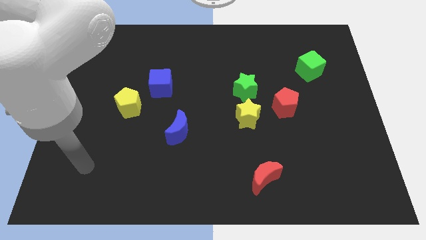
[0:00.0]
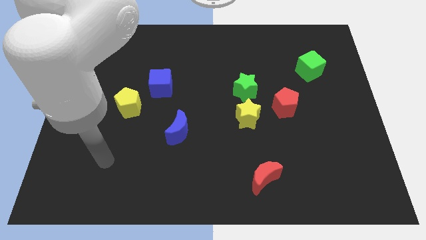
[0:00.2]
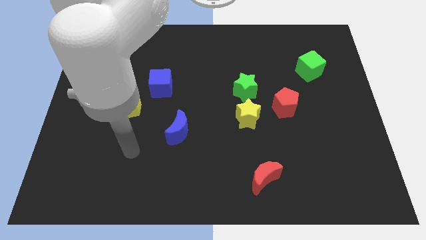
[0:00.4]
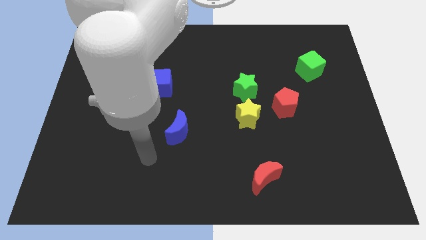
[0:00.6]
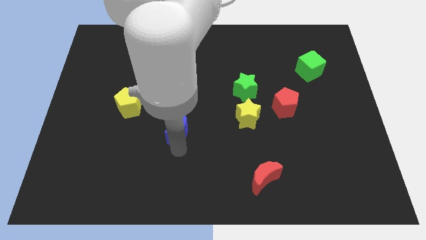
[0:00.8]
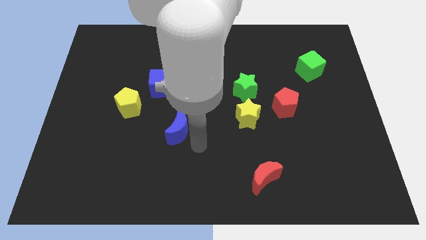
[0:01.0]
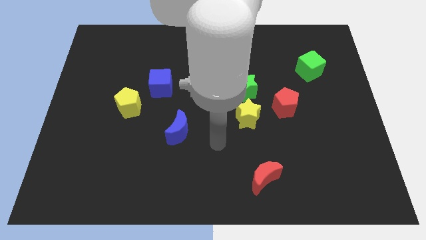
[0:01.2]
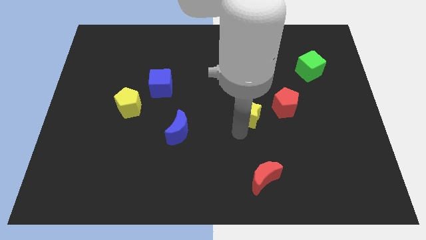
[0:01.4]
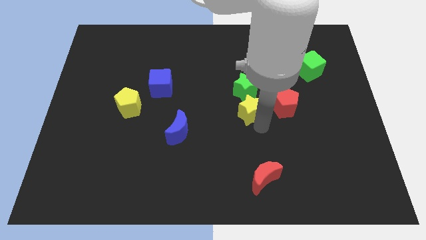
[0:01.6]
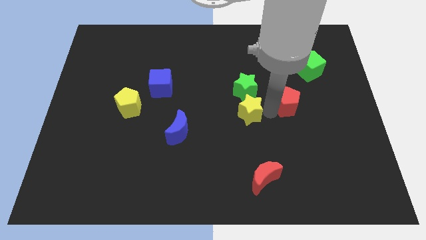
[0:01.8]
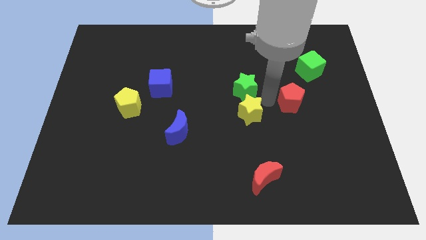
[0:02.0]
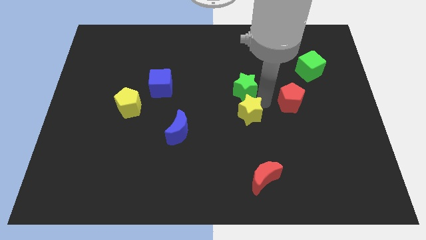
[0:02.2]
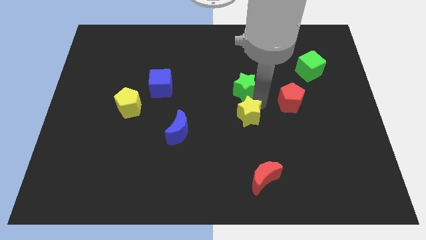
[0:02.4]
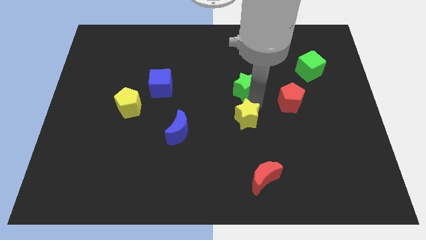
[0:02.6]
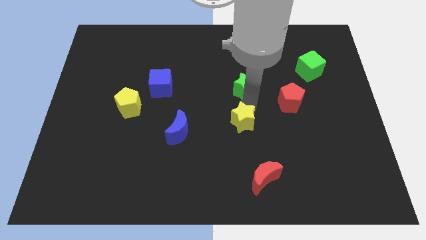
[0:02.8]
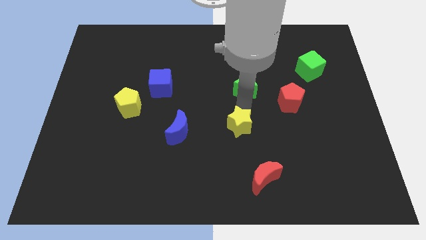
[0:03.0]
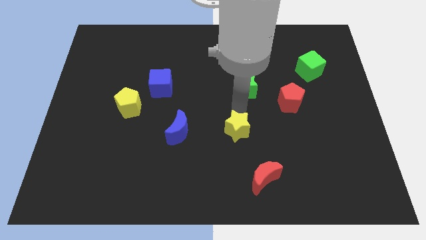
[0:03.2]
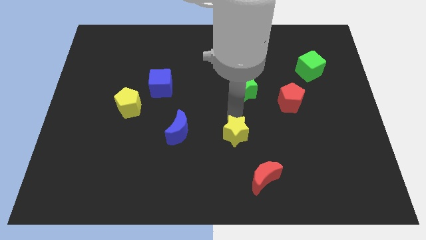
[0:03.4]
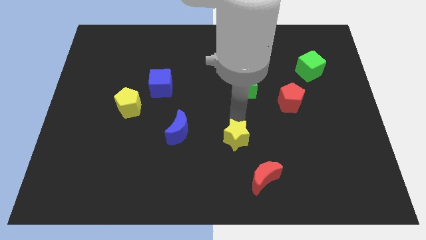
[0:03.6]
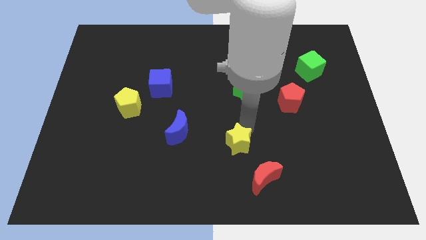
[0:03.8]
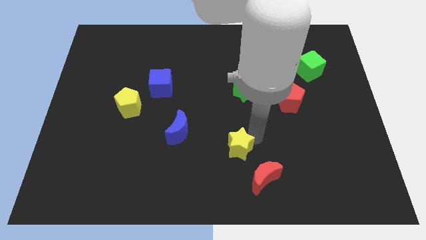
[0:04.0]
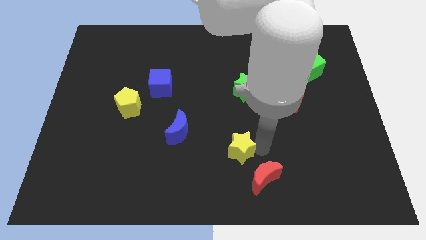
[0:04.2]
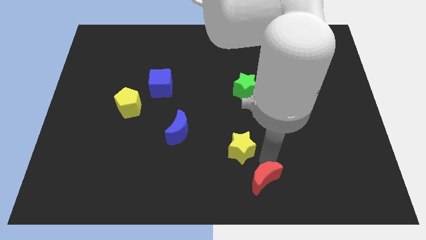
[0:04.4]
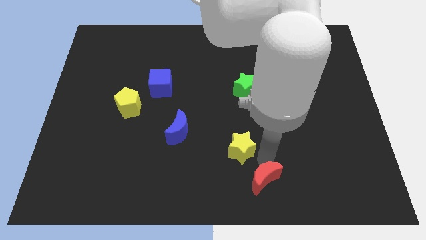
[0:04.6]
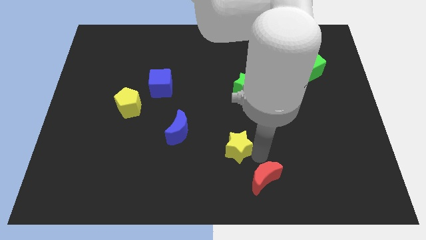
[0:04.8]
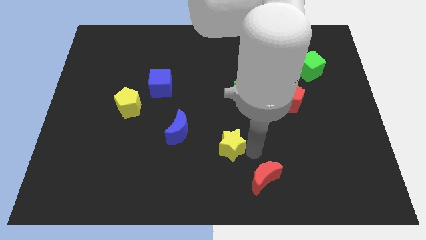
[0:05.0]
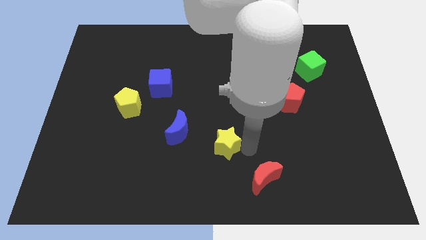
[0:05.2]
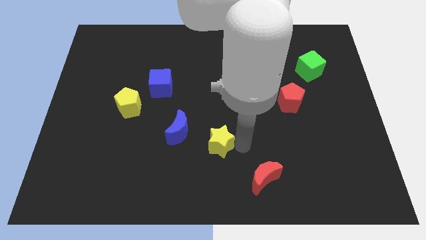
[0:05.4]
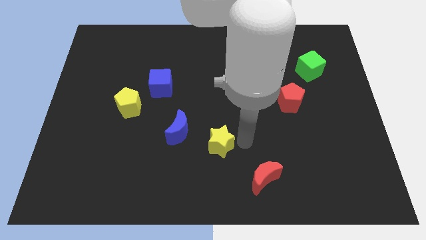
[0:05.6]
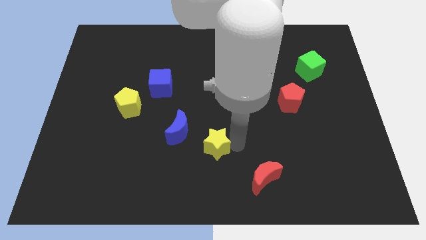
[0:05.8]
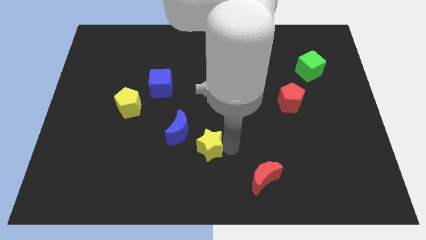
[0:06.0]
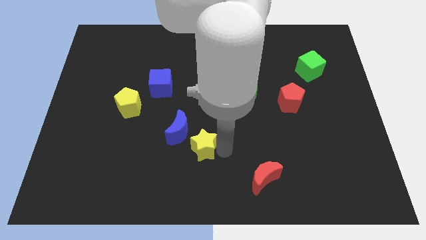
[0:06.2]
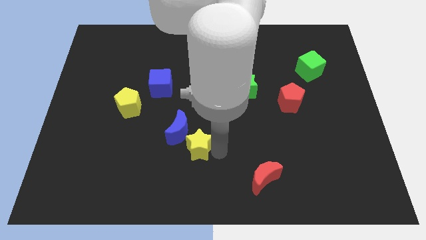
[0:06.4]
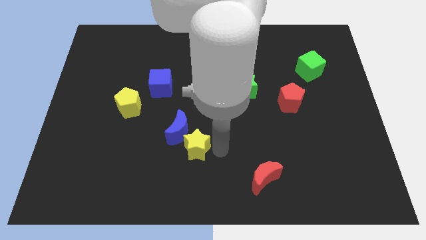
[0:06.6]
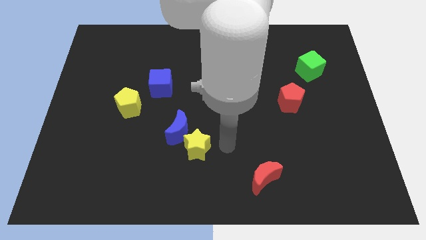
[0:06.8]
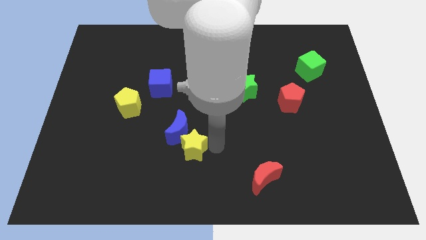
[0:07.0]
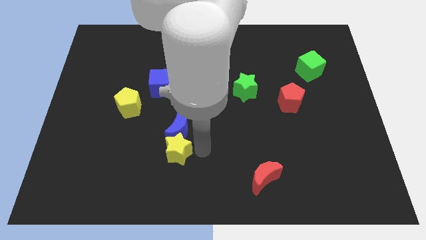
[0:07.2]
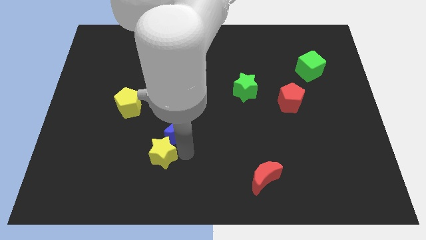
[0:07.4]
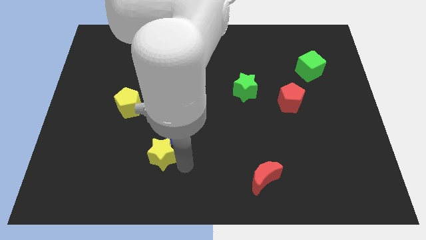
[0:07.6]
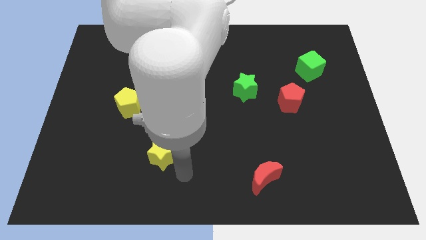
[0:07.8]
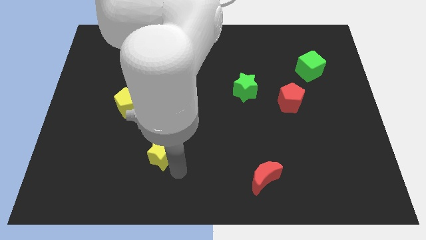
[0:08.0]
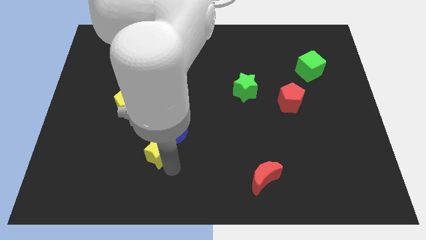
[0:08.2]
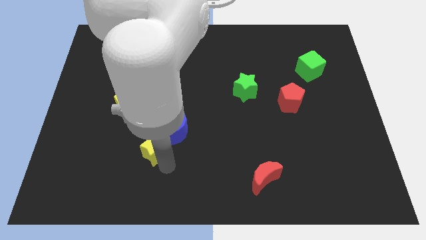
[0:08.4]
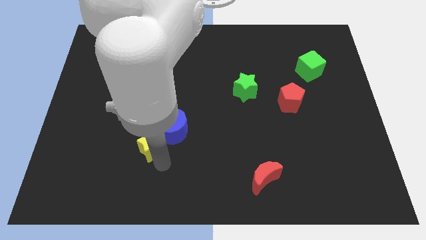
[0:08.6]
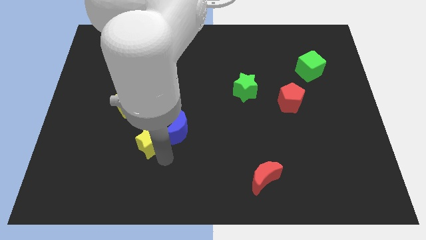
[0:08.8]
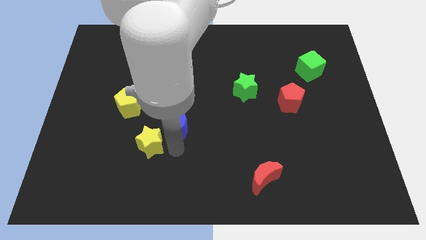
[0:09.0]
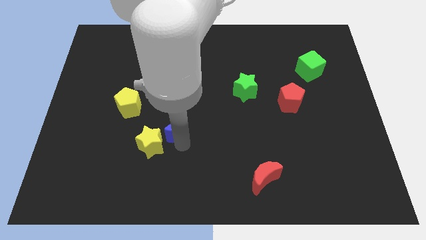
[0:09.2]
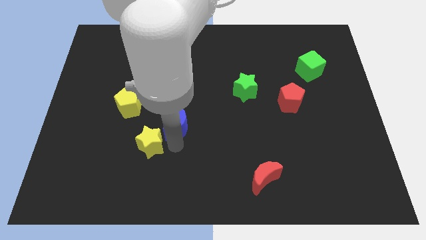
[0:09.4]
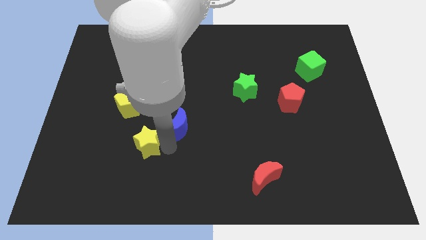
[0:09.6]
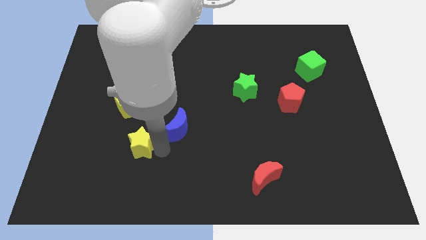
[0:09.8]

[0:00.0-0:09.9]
slide the yellow star to the bottom side of the yellow pentagon

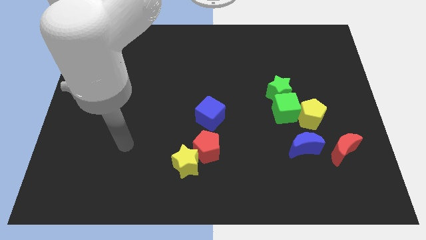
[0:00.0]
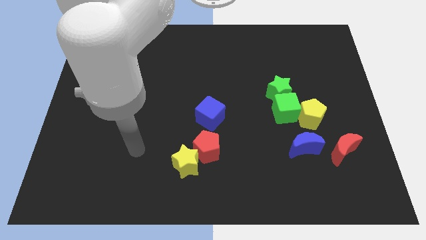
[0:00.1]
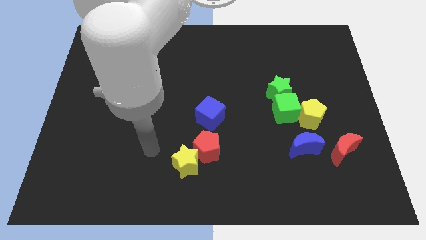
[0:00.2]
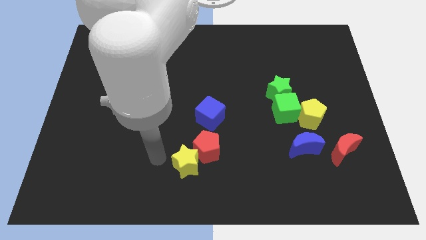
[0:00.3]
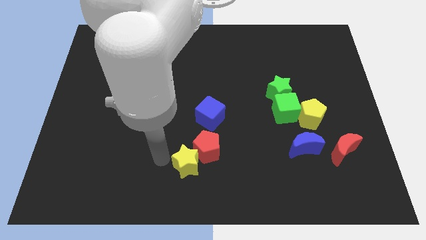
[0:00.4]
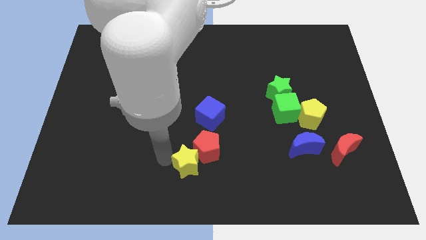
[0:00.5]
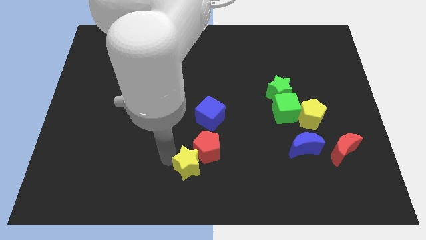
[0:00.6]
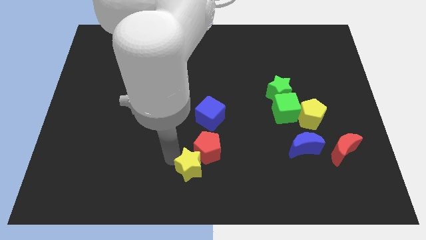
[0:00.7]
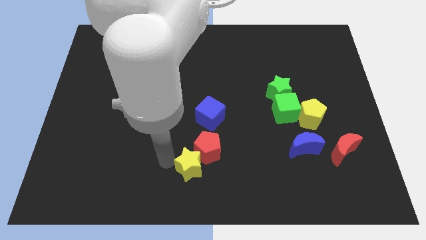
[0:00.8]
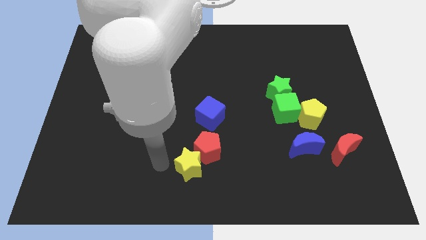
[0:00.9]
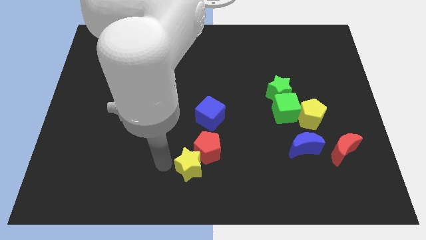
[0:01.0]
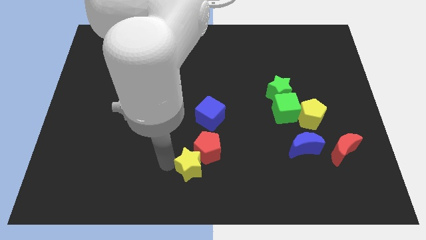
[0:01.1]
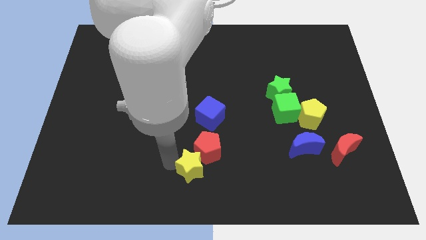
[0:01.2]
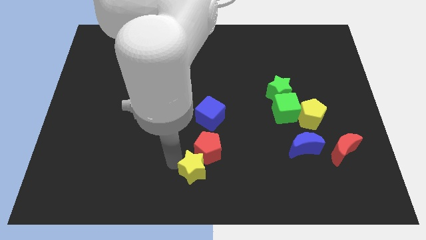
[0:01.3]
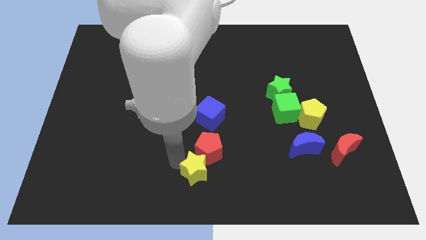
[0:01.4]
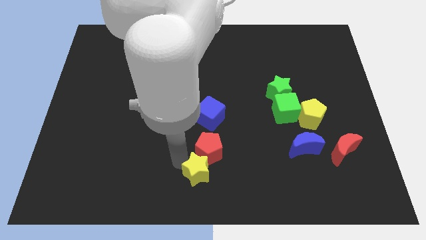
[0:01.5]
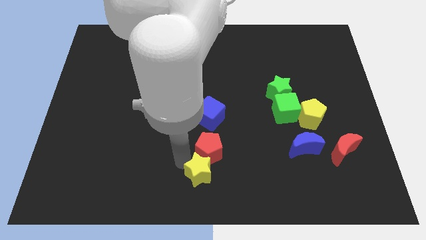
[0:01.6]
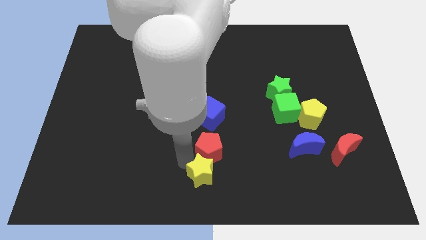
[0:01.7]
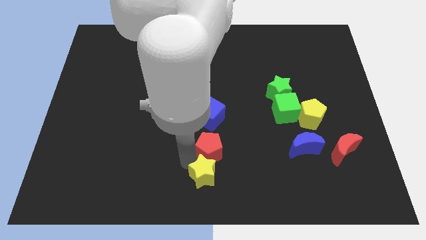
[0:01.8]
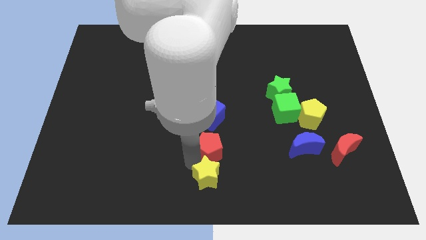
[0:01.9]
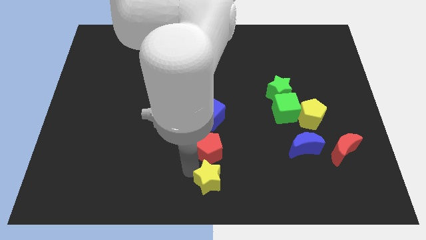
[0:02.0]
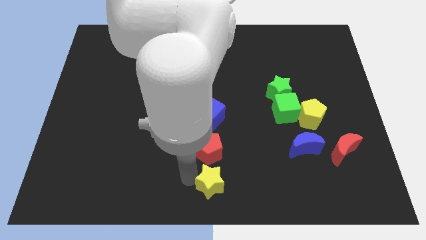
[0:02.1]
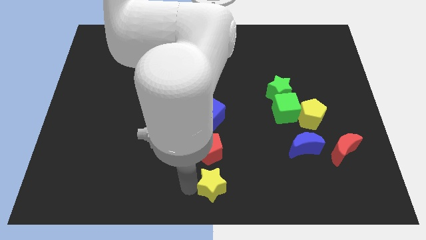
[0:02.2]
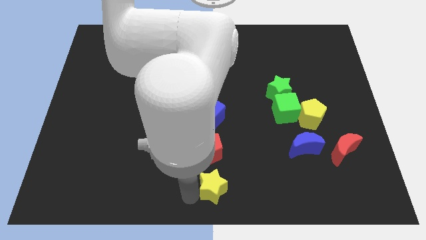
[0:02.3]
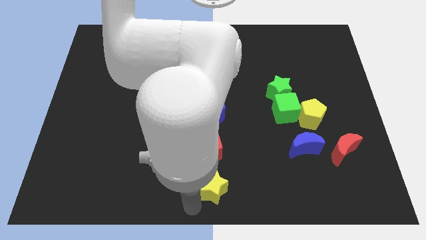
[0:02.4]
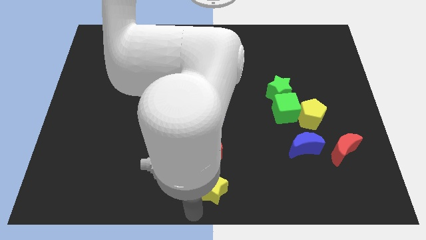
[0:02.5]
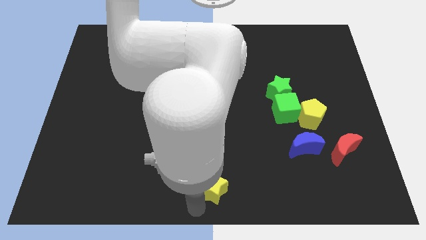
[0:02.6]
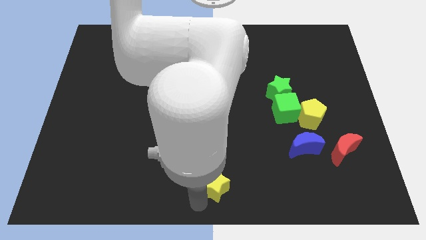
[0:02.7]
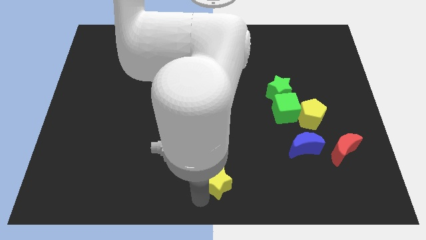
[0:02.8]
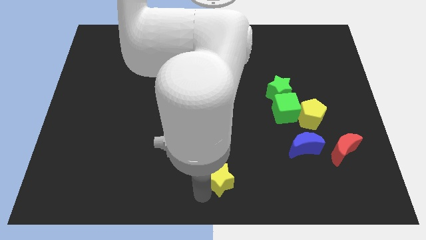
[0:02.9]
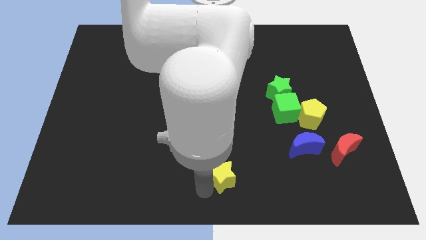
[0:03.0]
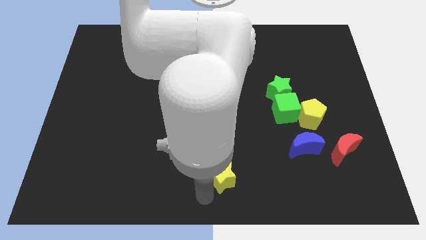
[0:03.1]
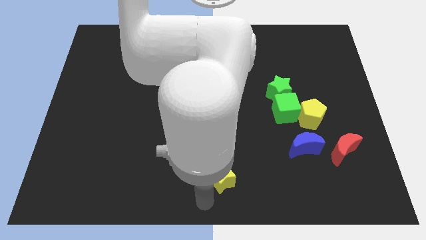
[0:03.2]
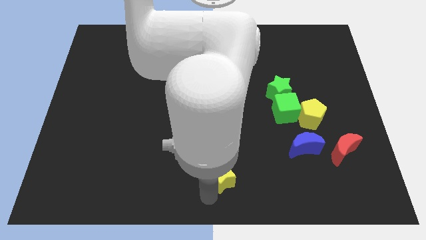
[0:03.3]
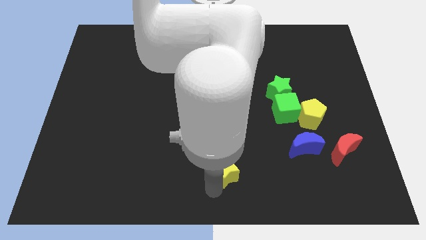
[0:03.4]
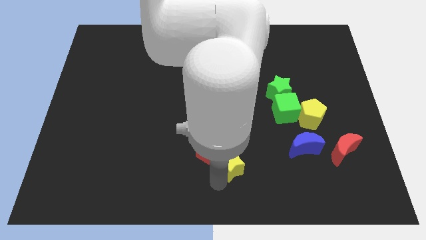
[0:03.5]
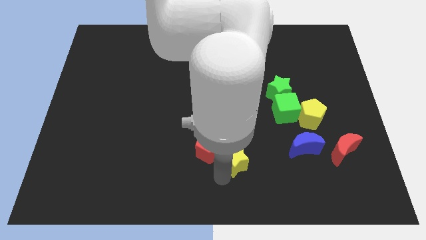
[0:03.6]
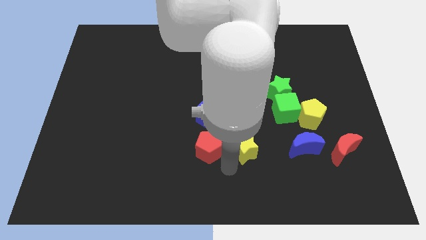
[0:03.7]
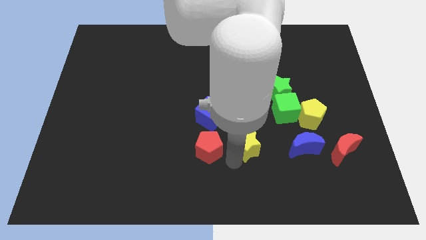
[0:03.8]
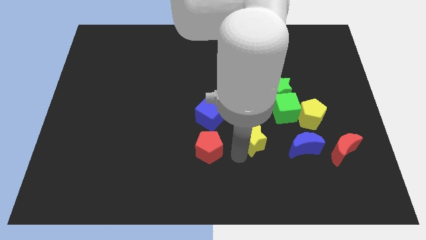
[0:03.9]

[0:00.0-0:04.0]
push the yellow star to the bottom left of the green cube
